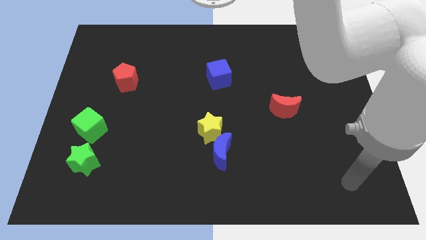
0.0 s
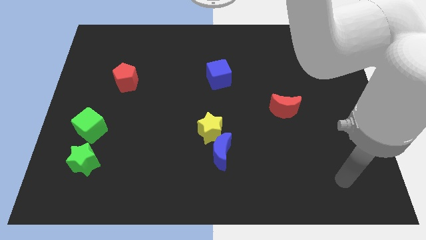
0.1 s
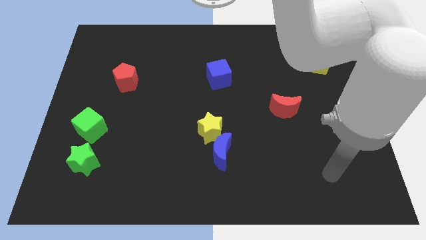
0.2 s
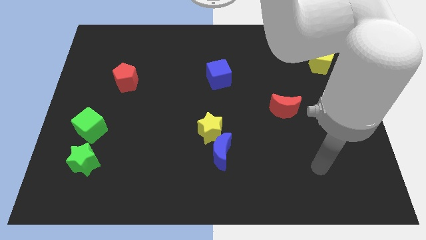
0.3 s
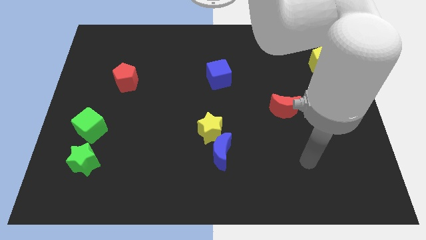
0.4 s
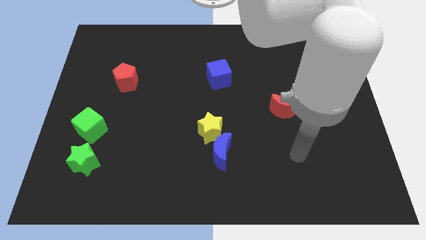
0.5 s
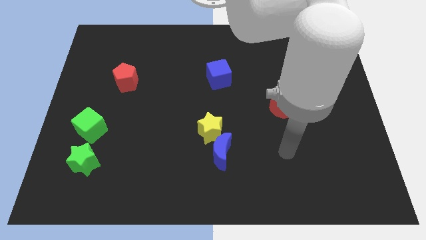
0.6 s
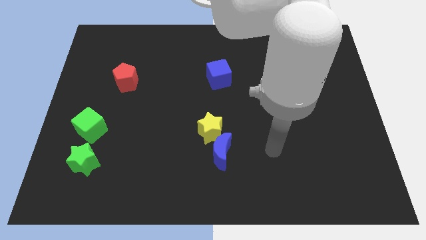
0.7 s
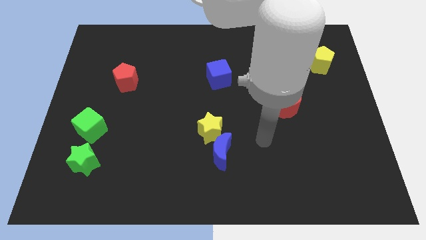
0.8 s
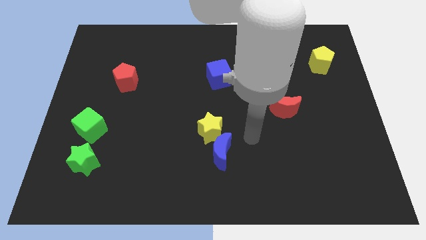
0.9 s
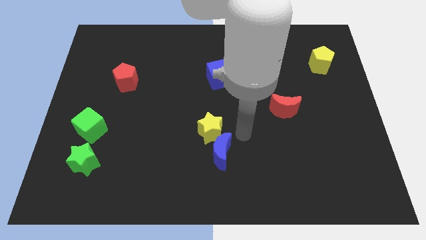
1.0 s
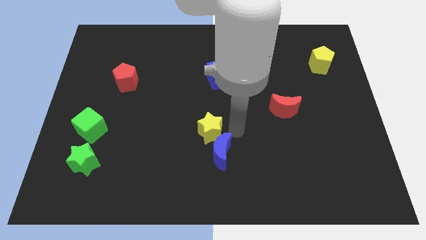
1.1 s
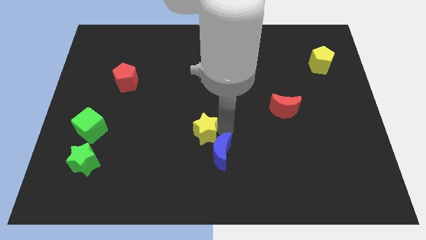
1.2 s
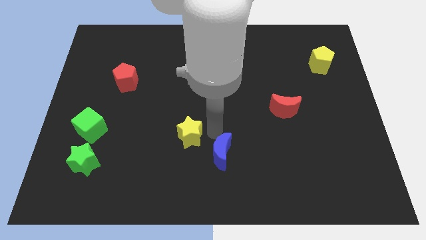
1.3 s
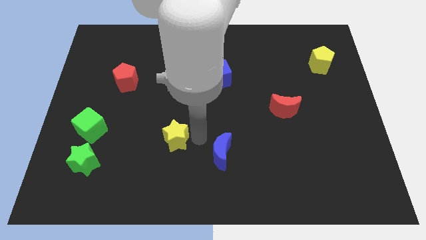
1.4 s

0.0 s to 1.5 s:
pull the blue moon apart from the yellow star

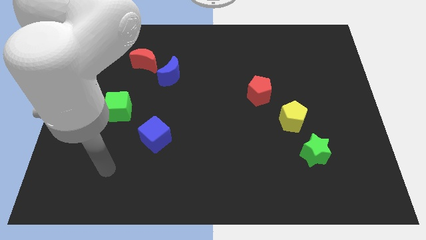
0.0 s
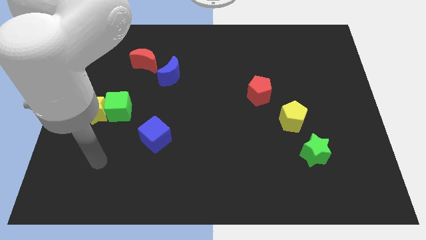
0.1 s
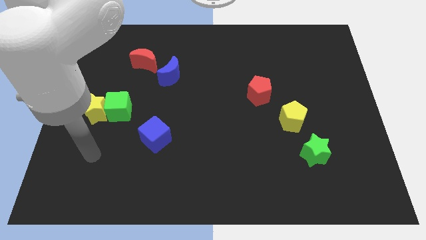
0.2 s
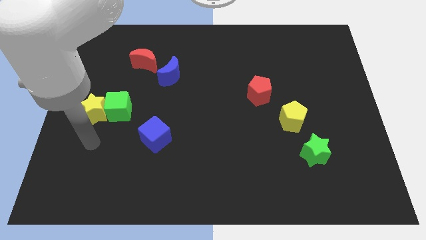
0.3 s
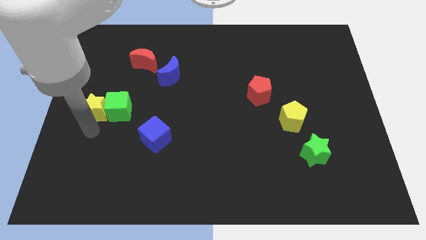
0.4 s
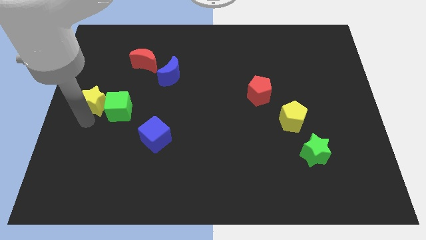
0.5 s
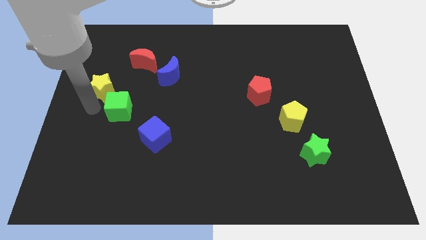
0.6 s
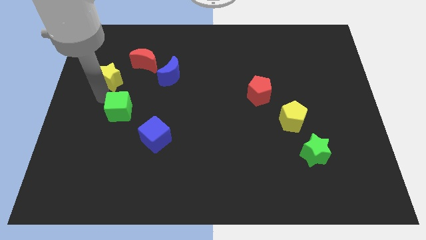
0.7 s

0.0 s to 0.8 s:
move the green cube away from the yellow star

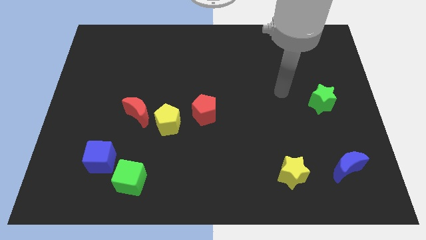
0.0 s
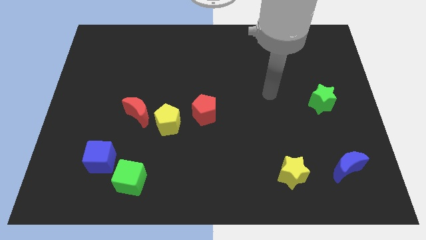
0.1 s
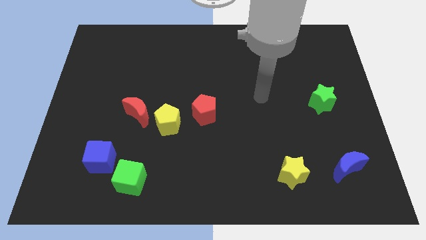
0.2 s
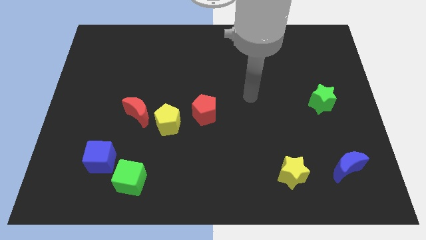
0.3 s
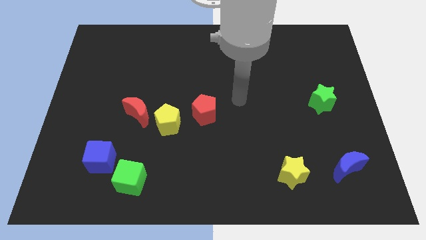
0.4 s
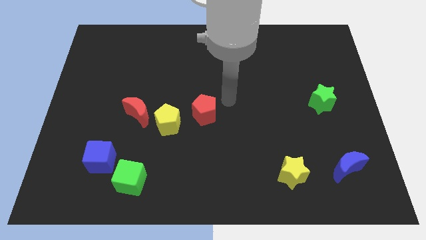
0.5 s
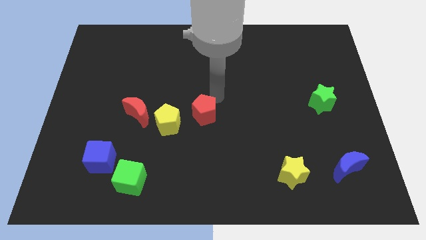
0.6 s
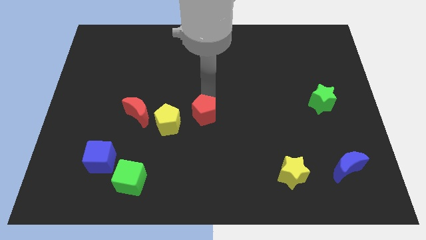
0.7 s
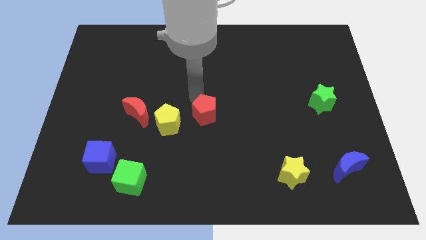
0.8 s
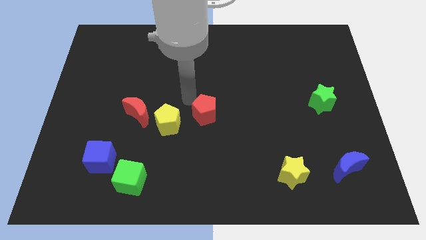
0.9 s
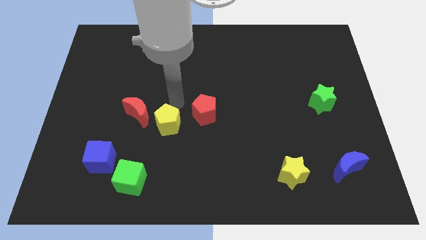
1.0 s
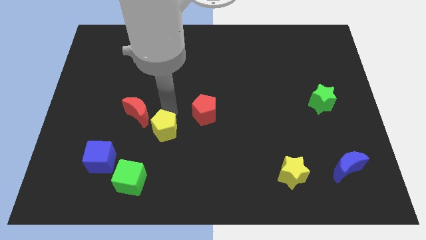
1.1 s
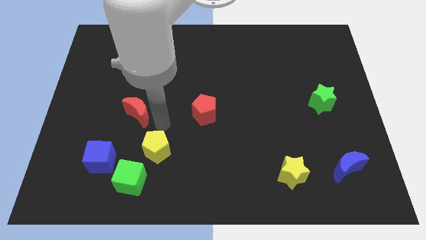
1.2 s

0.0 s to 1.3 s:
separate the red moon from the yellow pentagon

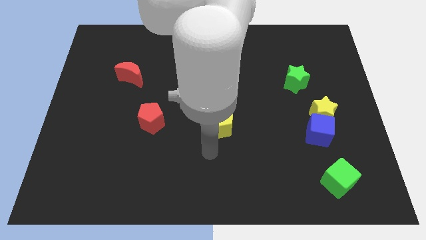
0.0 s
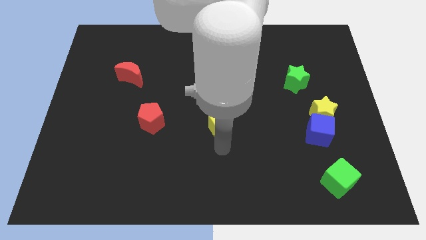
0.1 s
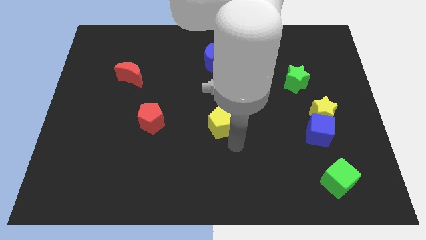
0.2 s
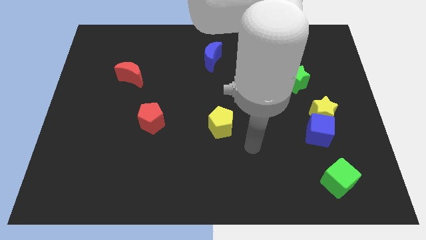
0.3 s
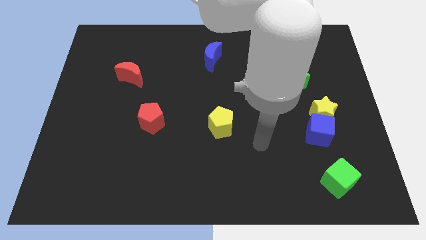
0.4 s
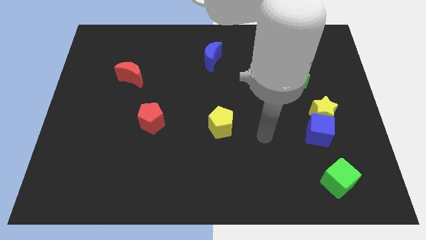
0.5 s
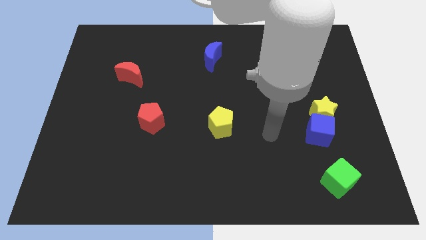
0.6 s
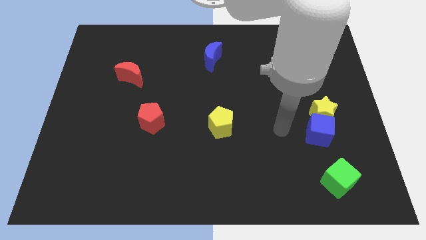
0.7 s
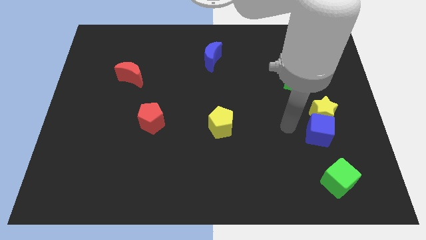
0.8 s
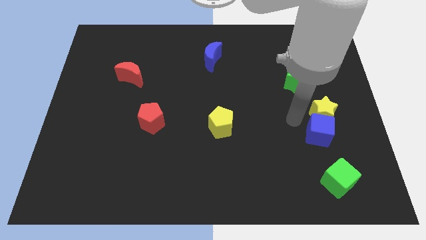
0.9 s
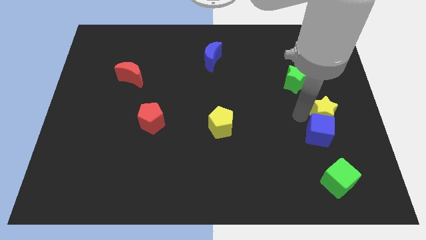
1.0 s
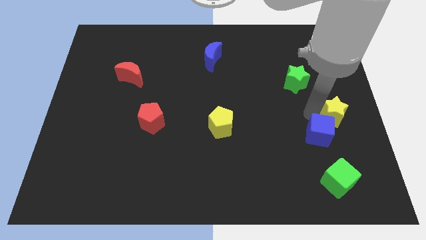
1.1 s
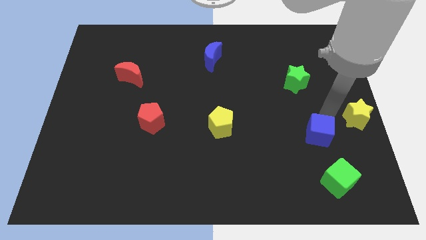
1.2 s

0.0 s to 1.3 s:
separate the blue cube from the yellow star

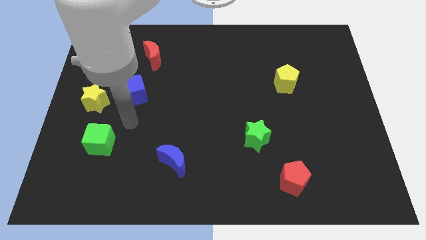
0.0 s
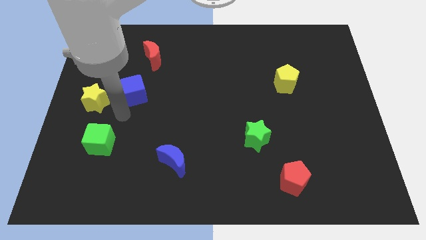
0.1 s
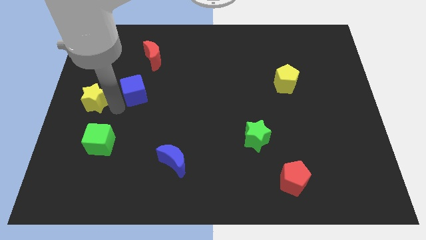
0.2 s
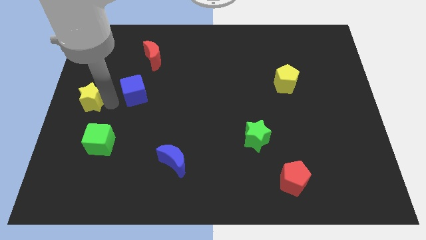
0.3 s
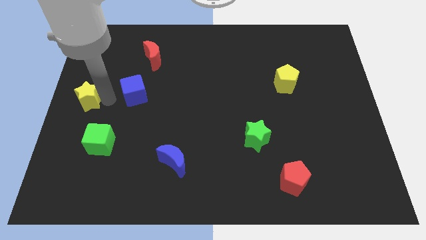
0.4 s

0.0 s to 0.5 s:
move the blue cube away from the yellow star

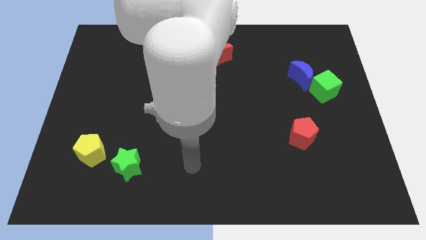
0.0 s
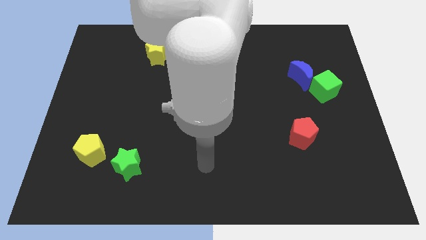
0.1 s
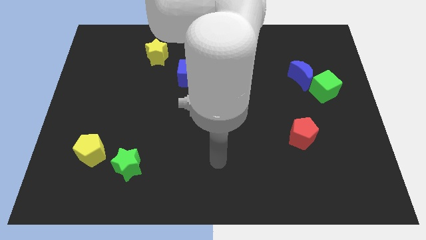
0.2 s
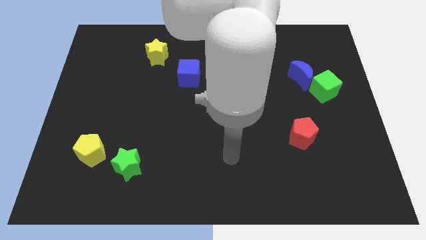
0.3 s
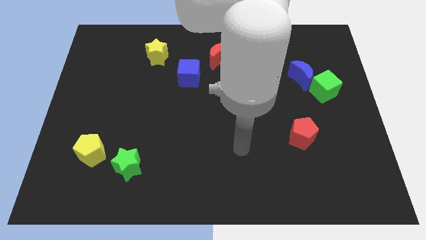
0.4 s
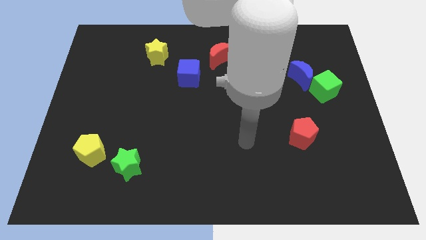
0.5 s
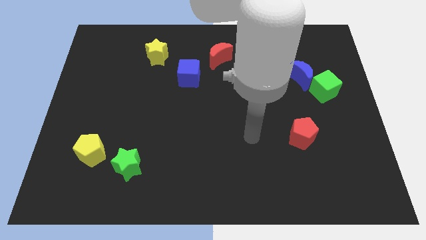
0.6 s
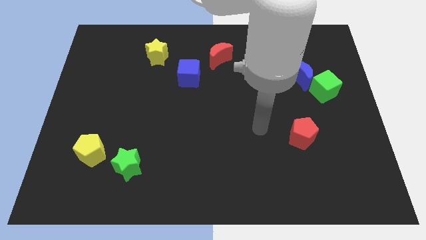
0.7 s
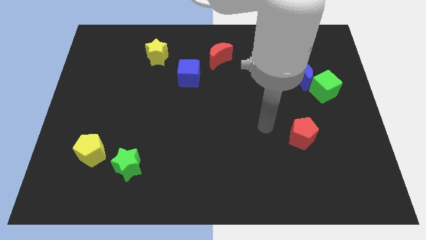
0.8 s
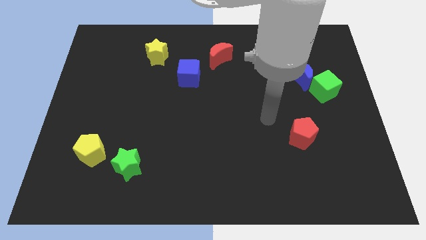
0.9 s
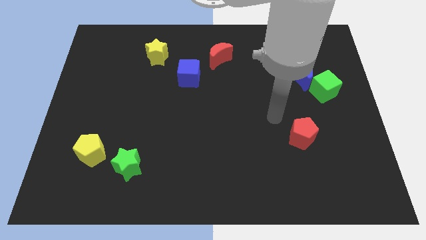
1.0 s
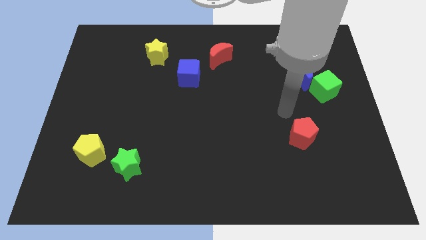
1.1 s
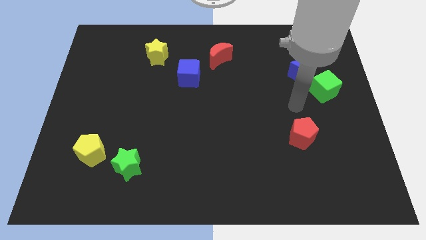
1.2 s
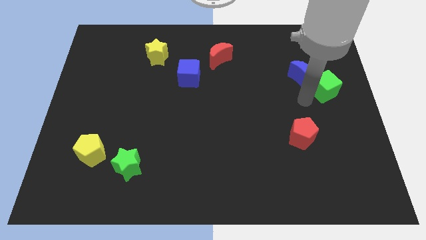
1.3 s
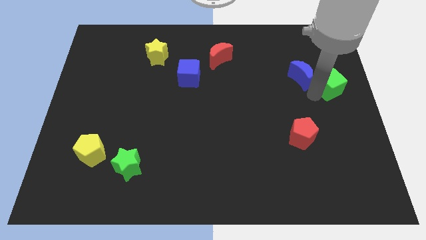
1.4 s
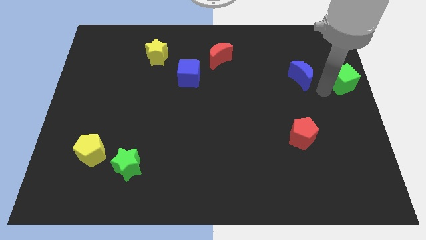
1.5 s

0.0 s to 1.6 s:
separate the blue moon from the green cube

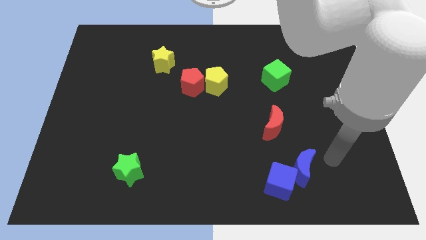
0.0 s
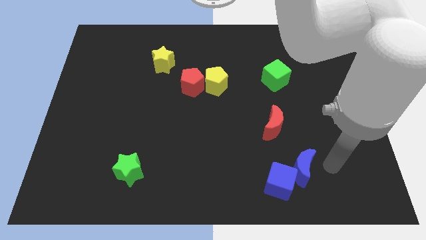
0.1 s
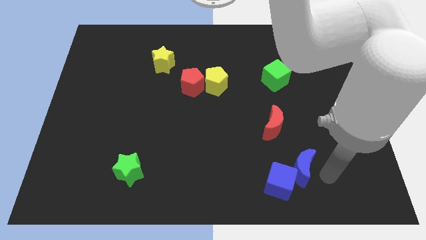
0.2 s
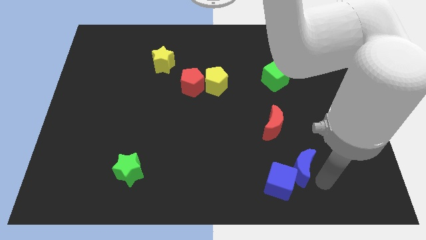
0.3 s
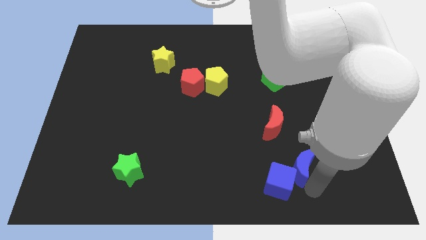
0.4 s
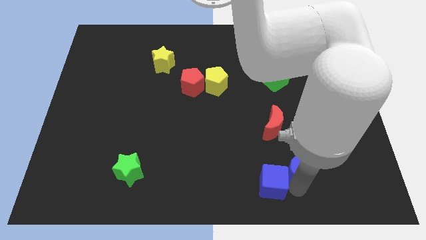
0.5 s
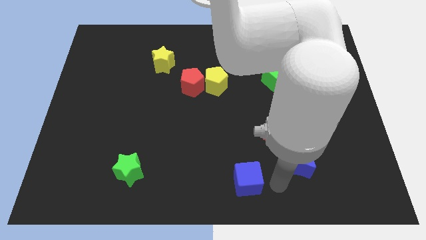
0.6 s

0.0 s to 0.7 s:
separate the blue moon from the blue cube

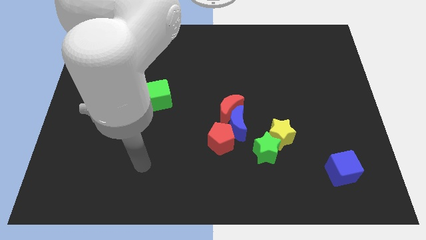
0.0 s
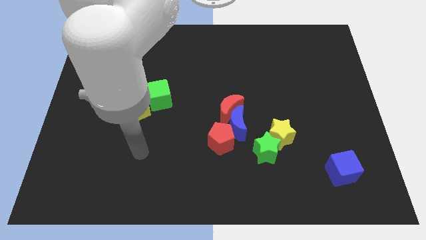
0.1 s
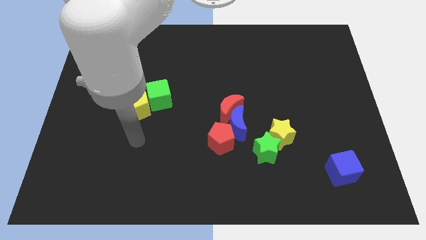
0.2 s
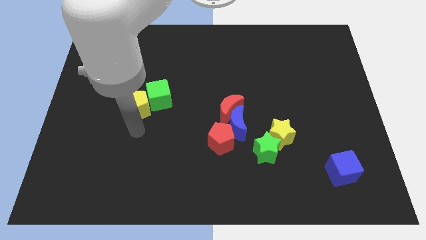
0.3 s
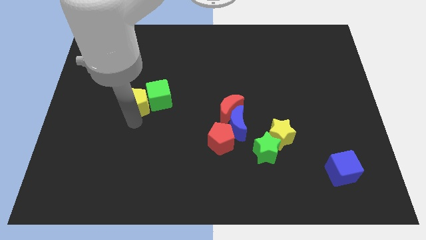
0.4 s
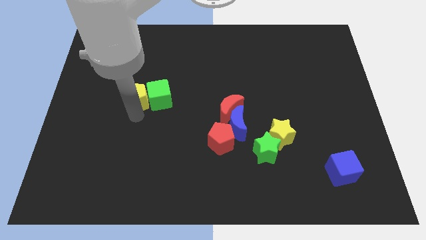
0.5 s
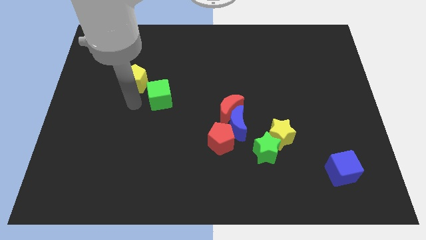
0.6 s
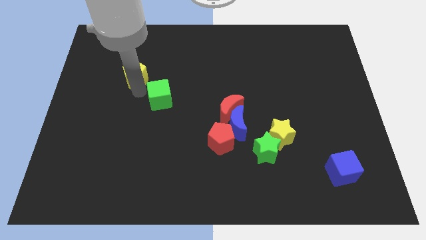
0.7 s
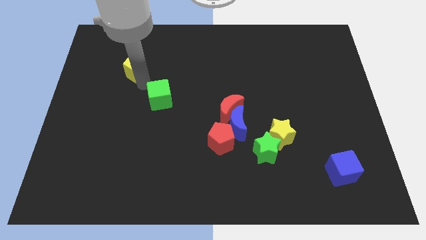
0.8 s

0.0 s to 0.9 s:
move the green cube away from the yellow pentagon

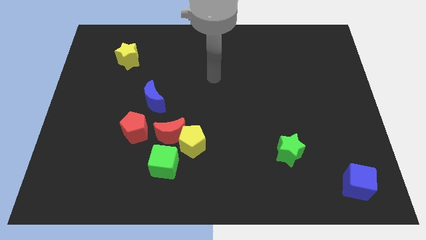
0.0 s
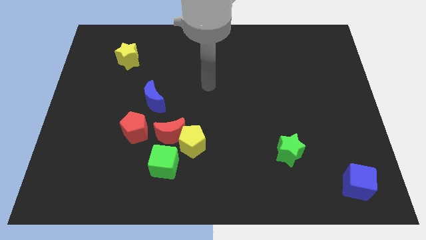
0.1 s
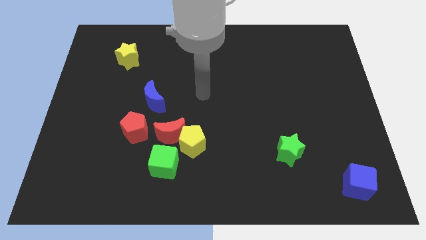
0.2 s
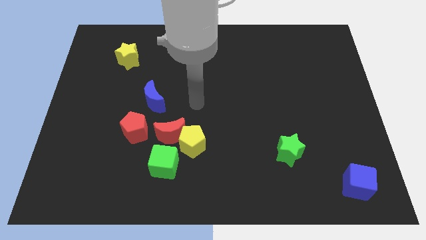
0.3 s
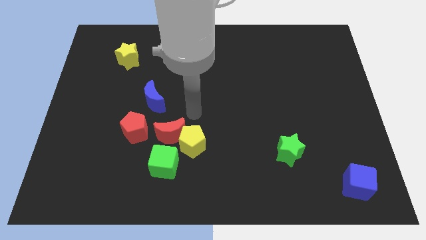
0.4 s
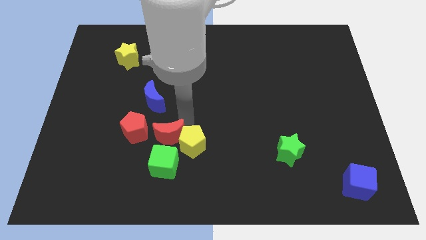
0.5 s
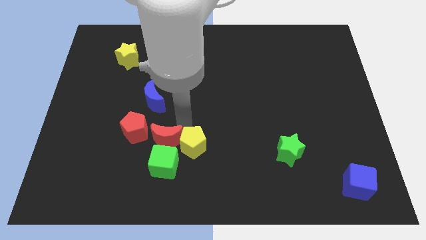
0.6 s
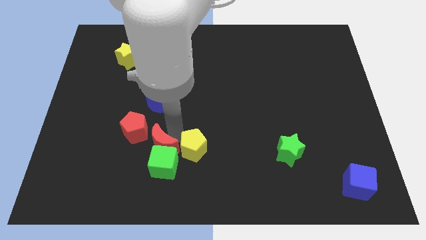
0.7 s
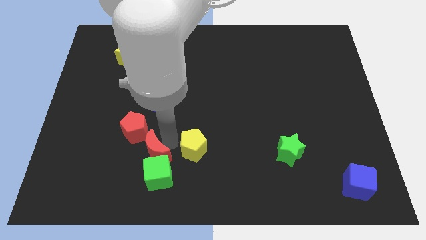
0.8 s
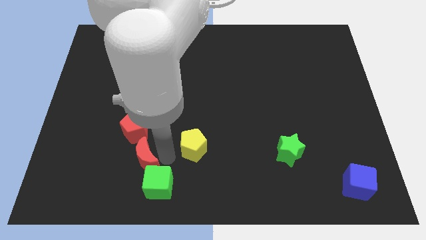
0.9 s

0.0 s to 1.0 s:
move the yellow pentagon away from the red moon and green cube
